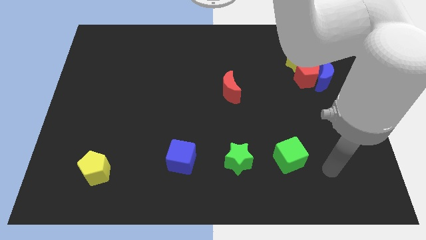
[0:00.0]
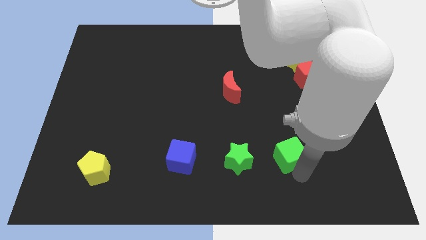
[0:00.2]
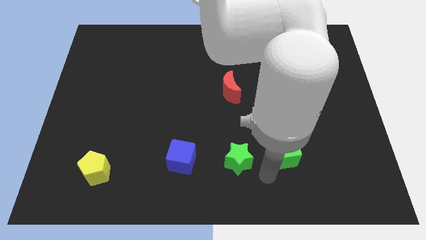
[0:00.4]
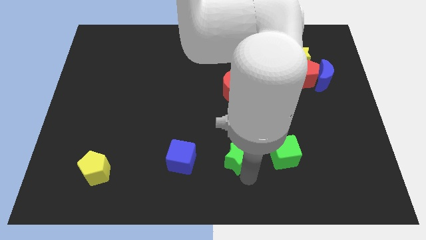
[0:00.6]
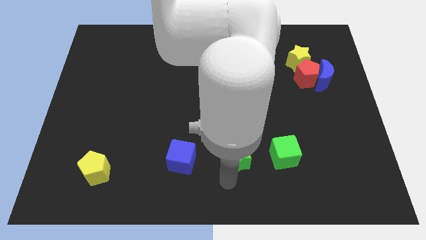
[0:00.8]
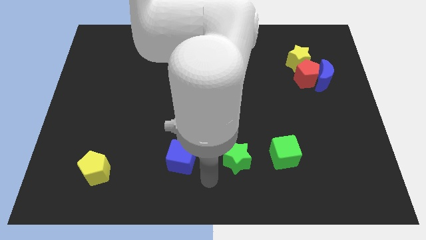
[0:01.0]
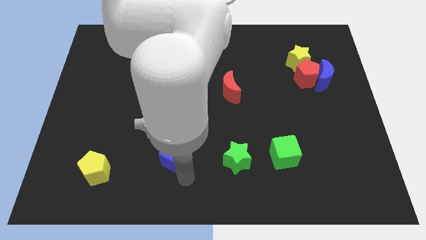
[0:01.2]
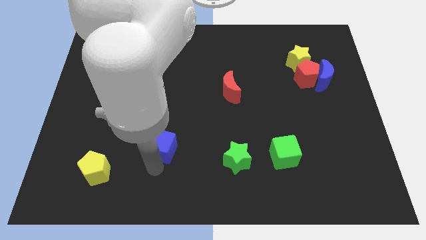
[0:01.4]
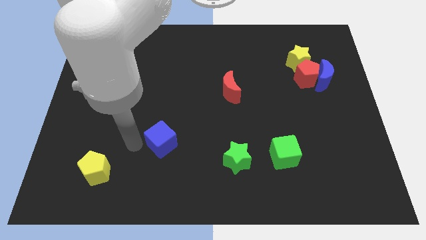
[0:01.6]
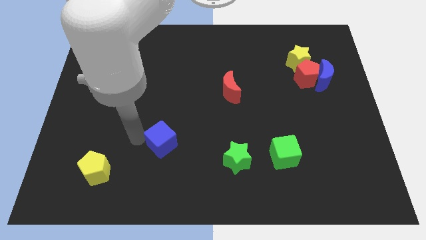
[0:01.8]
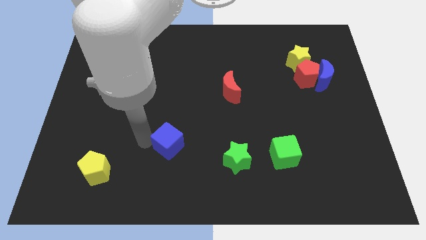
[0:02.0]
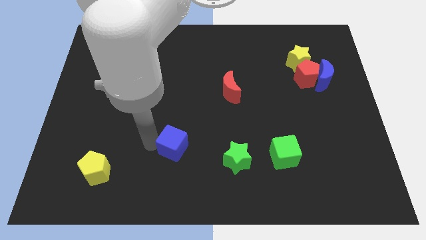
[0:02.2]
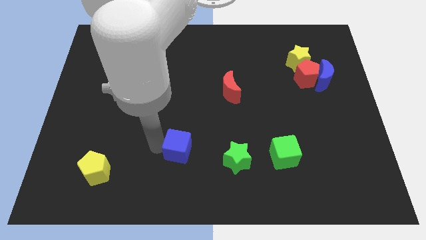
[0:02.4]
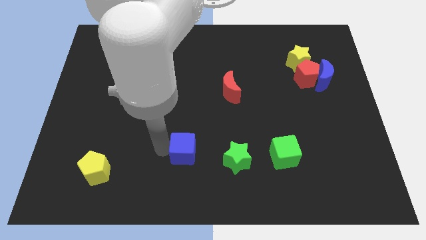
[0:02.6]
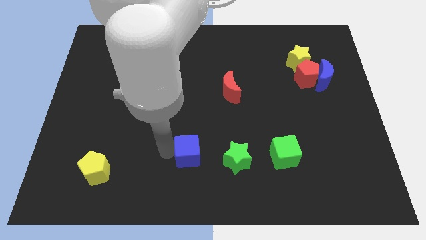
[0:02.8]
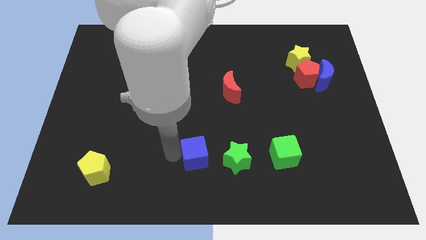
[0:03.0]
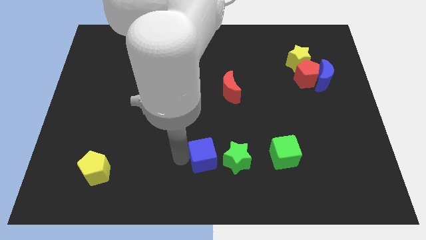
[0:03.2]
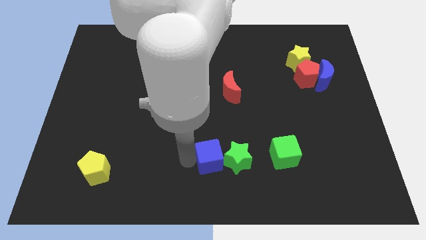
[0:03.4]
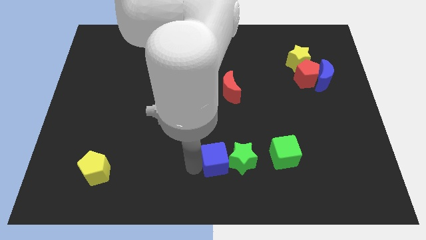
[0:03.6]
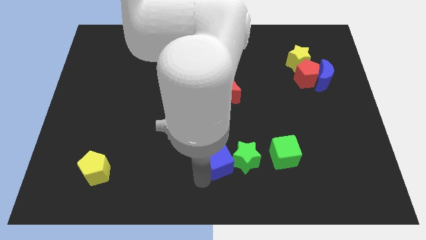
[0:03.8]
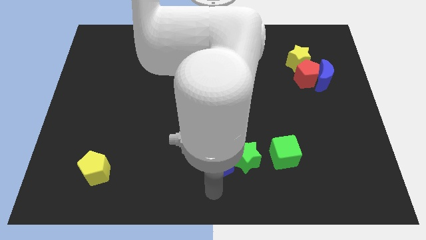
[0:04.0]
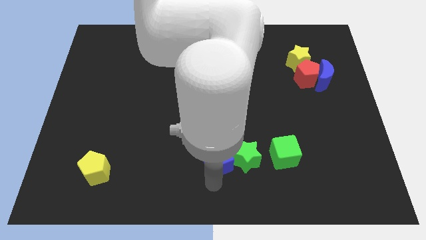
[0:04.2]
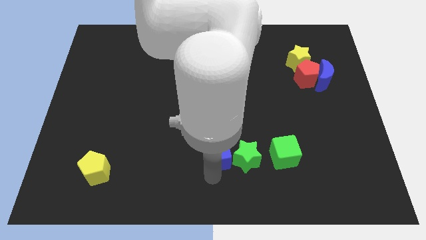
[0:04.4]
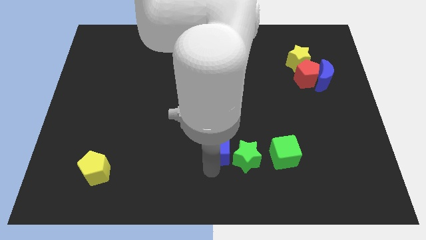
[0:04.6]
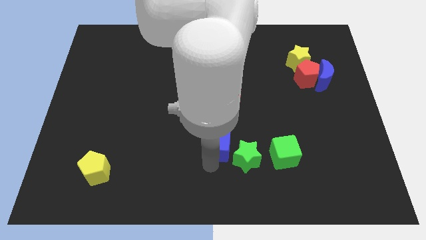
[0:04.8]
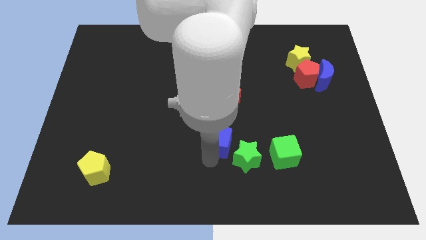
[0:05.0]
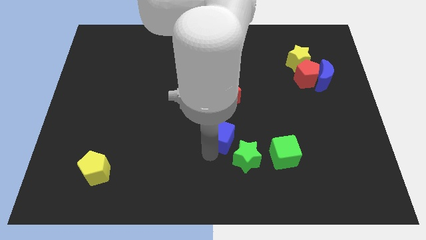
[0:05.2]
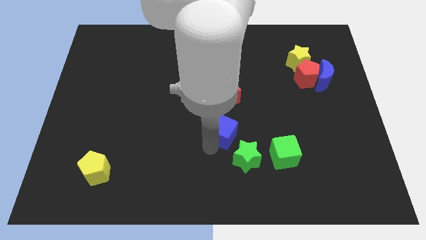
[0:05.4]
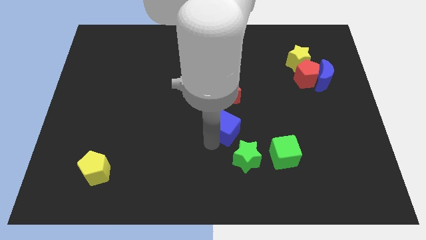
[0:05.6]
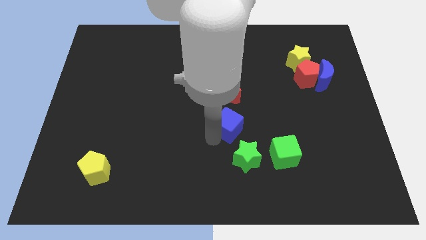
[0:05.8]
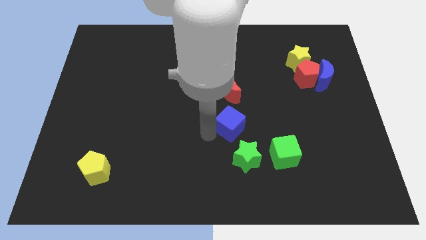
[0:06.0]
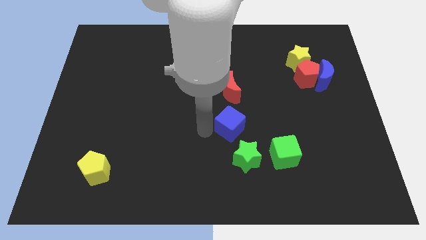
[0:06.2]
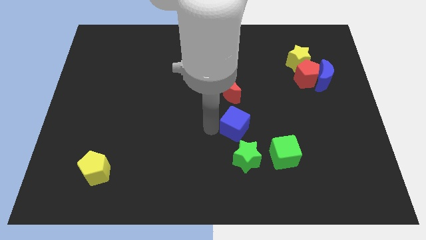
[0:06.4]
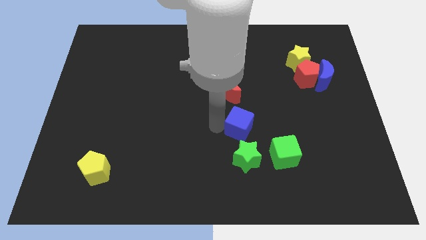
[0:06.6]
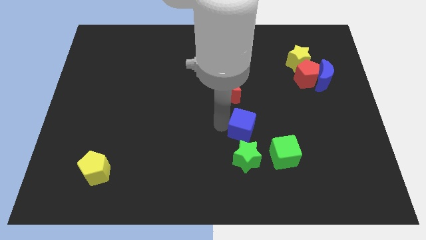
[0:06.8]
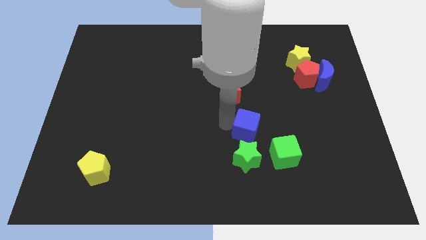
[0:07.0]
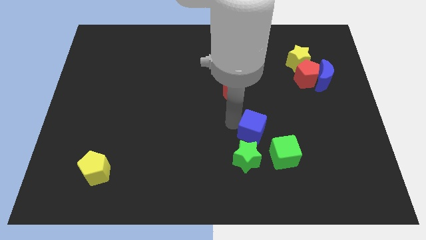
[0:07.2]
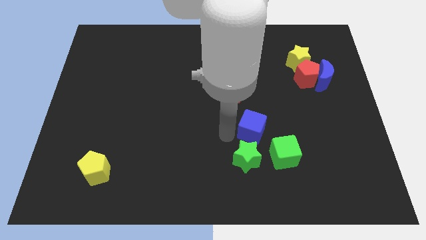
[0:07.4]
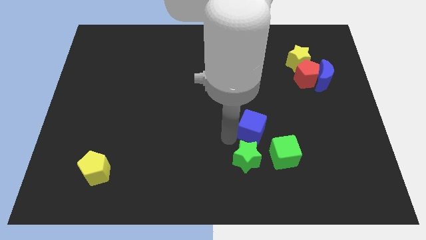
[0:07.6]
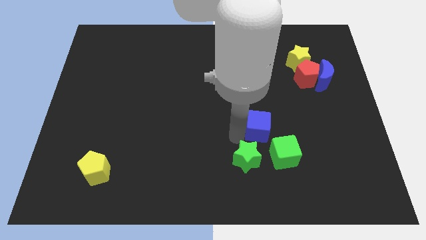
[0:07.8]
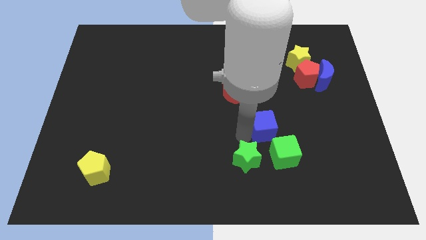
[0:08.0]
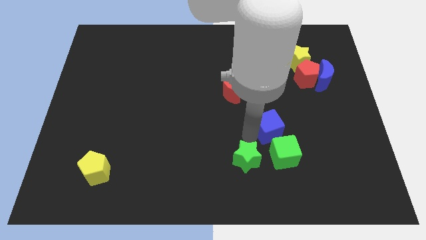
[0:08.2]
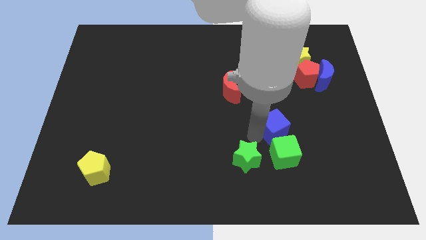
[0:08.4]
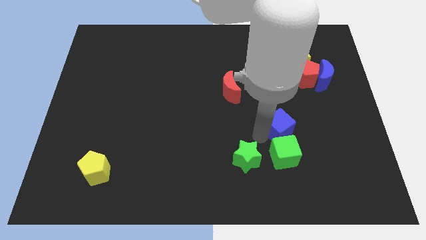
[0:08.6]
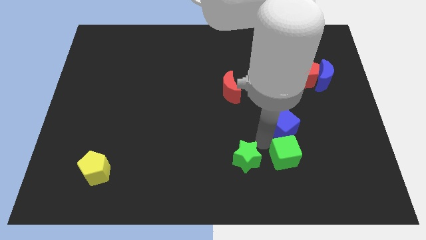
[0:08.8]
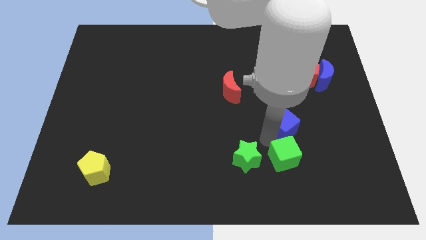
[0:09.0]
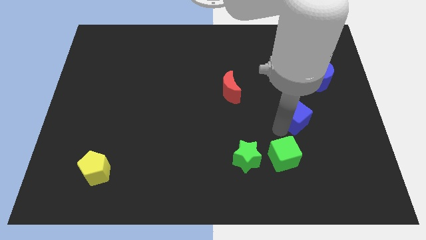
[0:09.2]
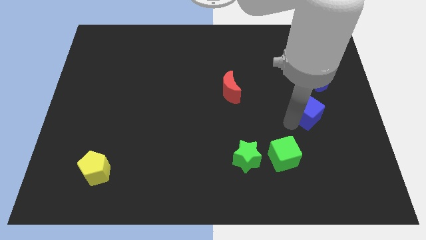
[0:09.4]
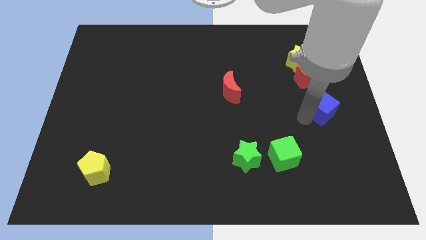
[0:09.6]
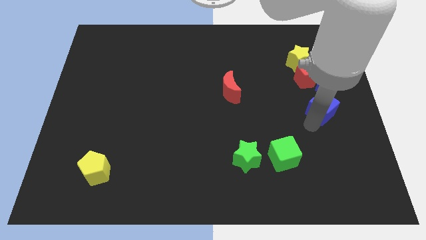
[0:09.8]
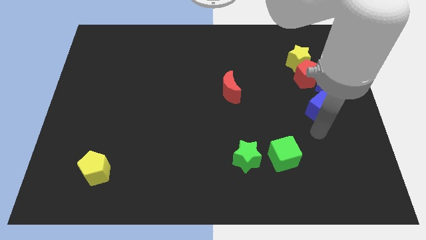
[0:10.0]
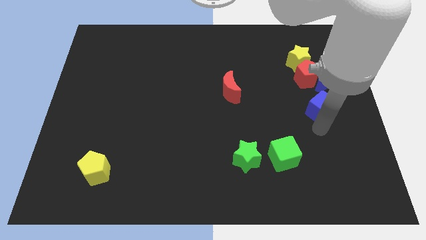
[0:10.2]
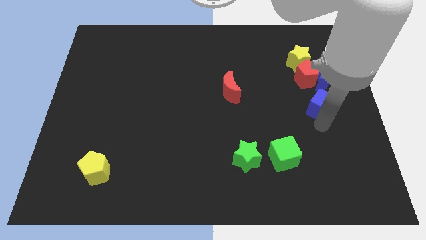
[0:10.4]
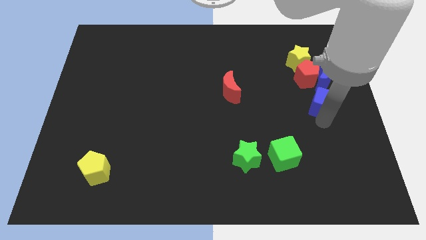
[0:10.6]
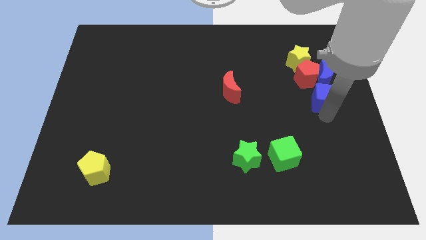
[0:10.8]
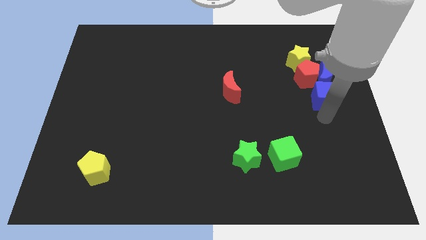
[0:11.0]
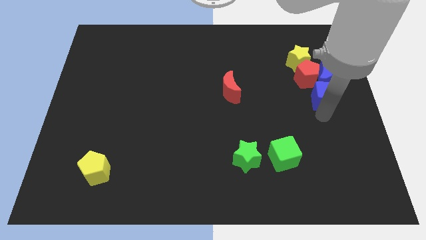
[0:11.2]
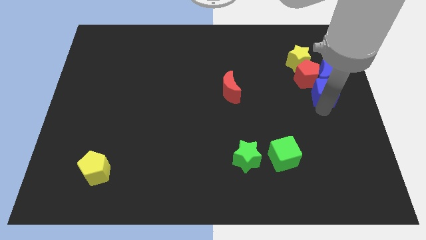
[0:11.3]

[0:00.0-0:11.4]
push the blue cube close to the blue moon

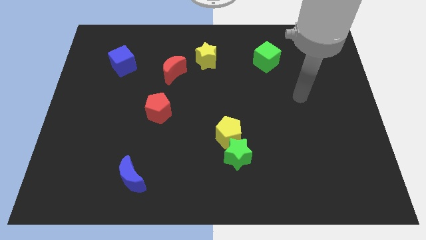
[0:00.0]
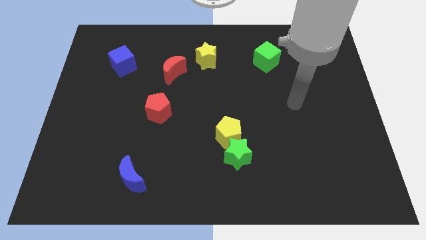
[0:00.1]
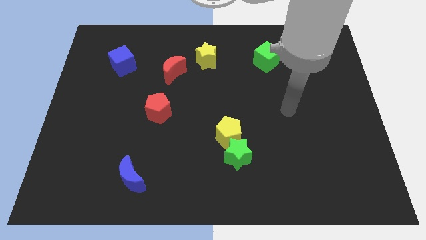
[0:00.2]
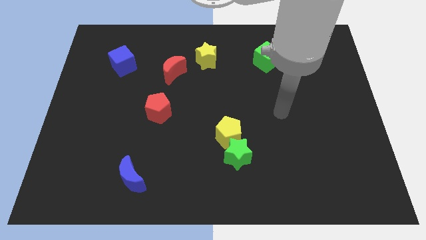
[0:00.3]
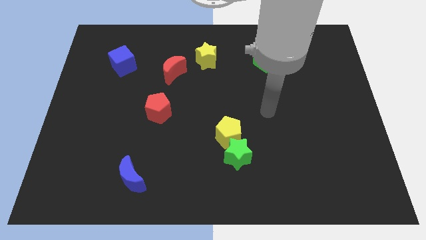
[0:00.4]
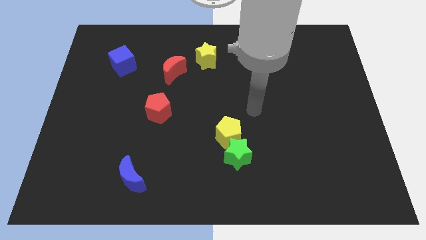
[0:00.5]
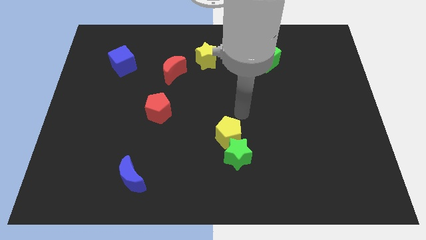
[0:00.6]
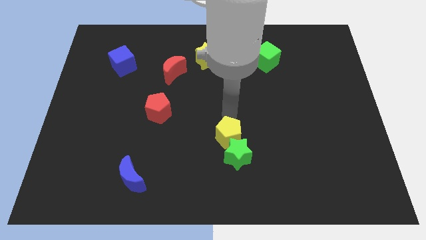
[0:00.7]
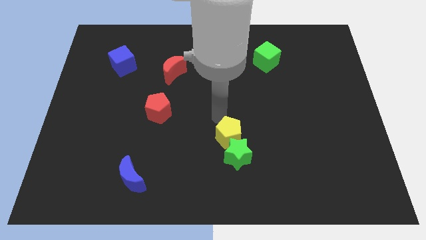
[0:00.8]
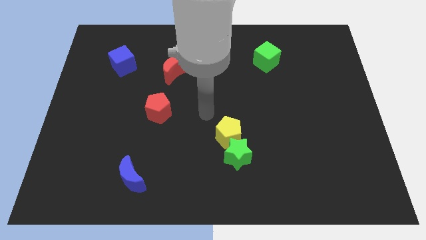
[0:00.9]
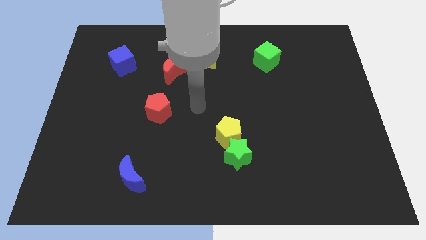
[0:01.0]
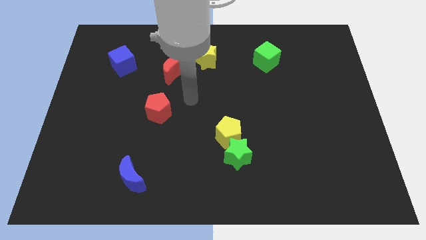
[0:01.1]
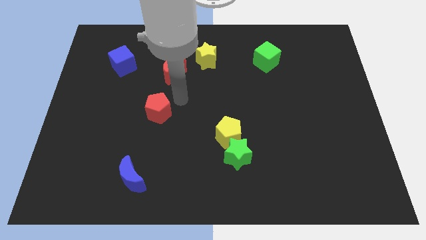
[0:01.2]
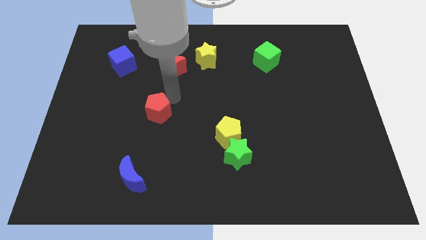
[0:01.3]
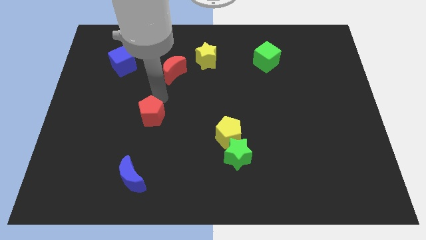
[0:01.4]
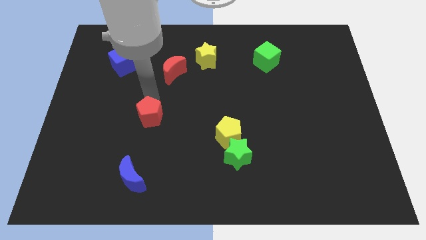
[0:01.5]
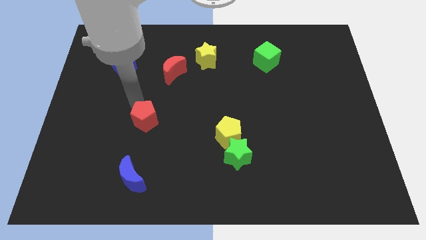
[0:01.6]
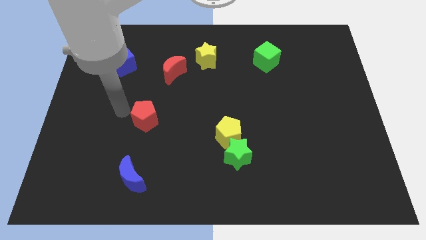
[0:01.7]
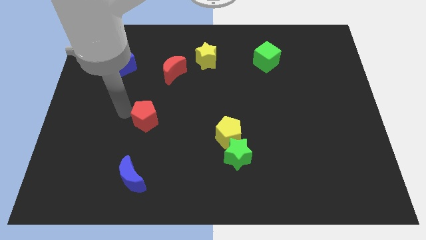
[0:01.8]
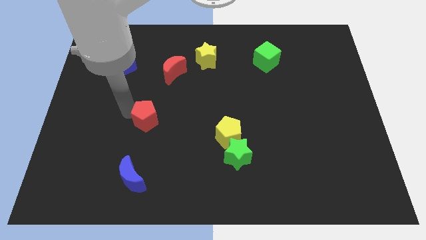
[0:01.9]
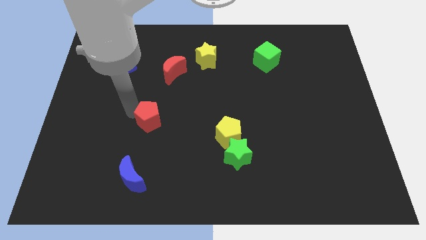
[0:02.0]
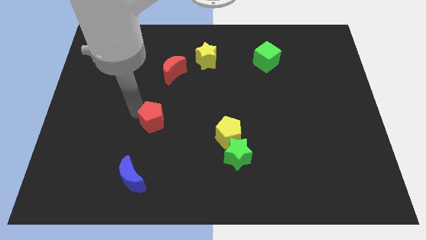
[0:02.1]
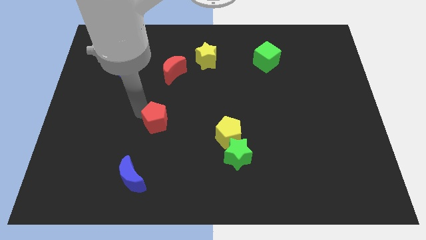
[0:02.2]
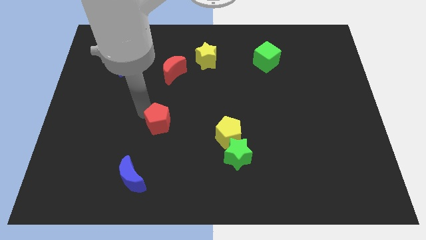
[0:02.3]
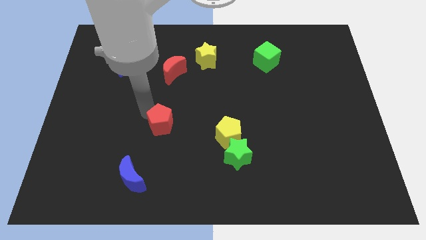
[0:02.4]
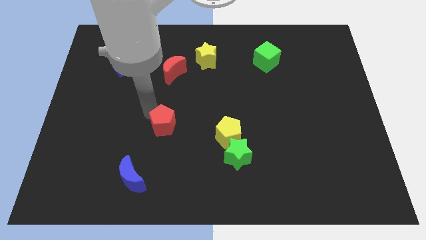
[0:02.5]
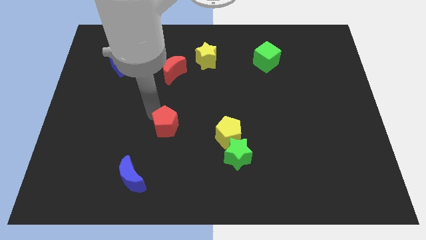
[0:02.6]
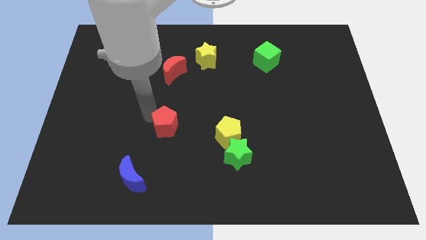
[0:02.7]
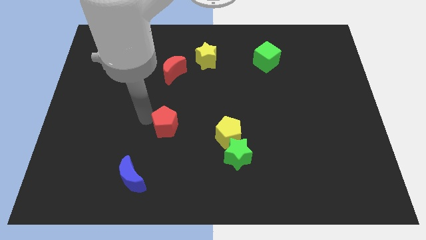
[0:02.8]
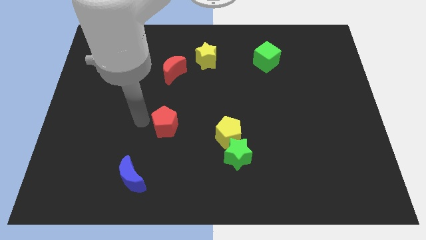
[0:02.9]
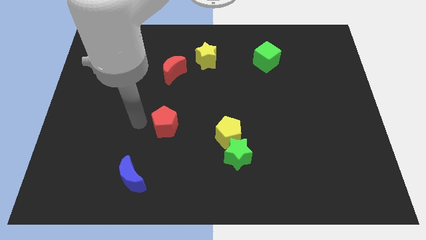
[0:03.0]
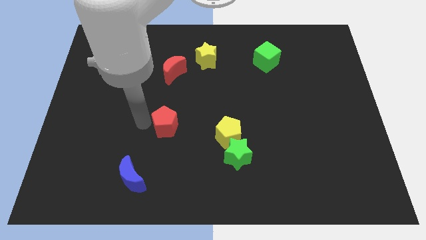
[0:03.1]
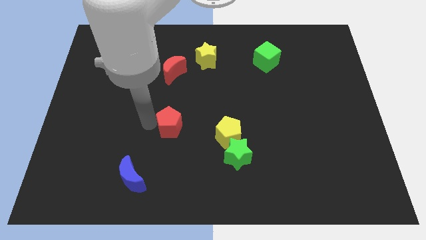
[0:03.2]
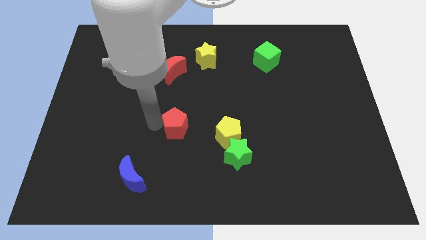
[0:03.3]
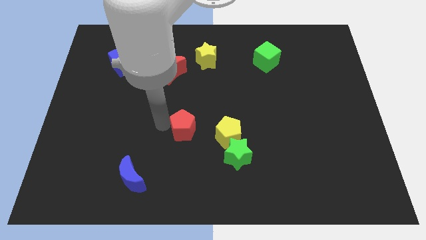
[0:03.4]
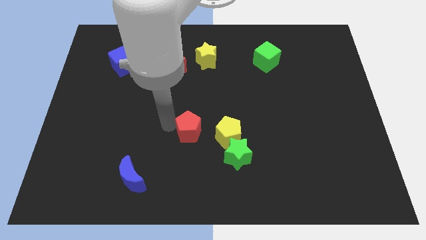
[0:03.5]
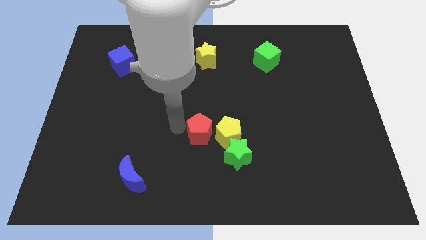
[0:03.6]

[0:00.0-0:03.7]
push the red pentagon close to the yellow pentagon
